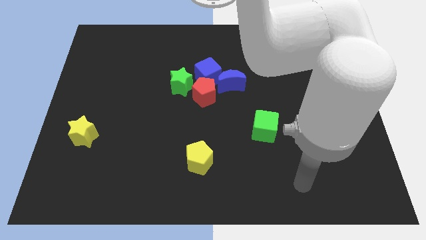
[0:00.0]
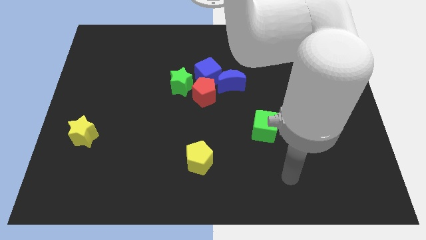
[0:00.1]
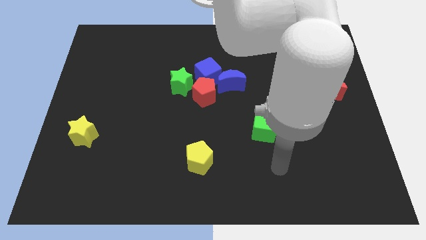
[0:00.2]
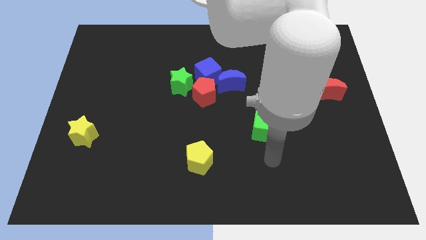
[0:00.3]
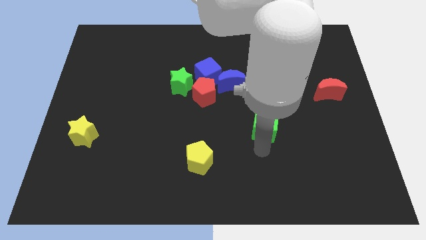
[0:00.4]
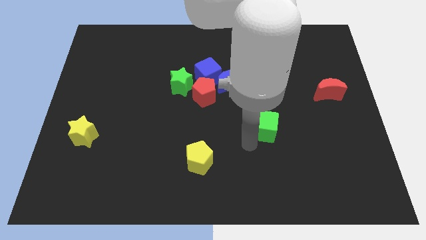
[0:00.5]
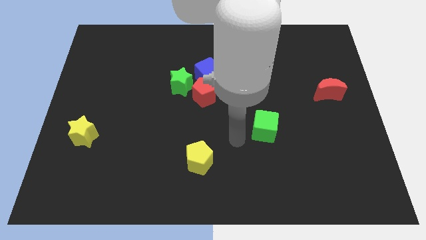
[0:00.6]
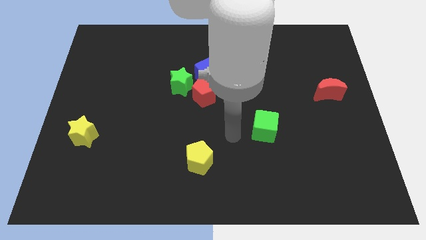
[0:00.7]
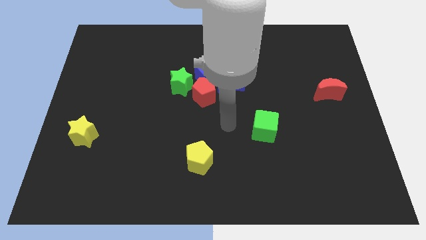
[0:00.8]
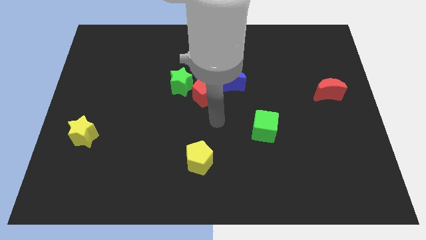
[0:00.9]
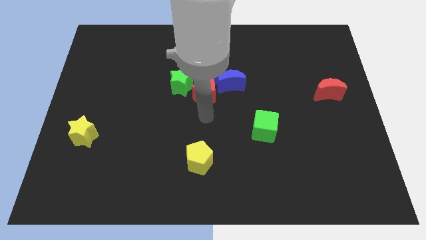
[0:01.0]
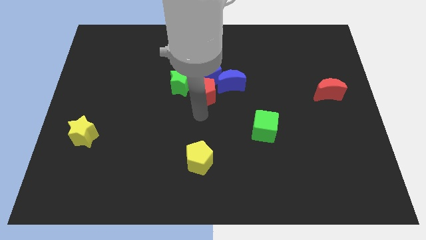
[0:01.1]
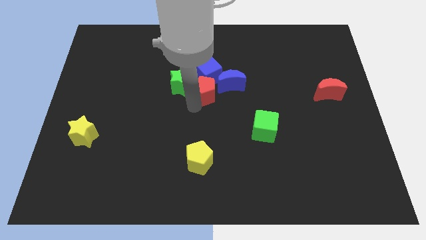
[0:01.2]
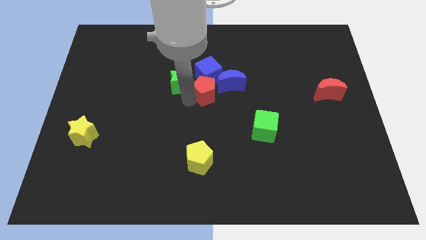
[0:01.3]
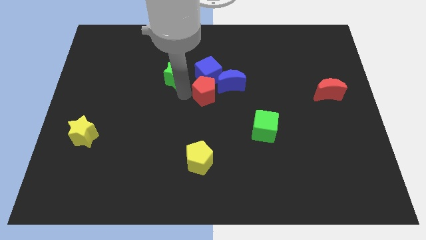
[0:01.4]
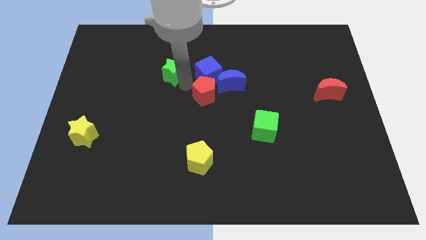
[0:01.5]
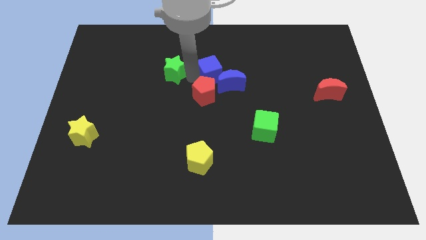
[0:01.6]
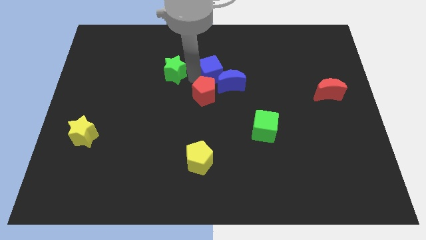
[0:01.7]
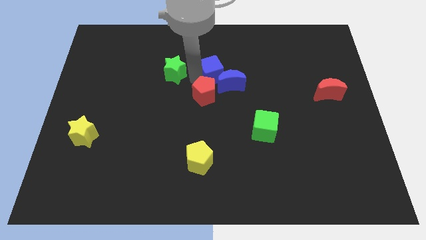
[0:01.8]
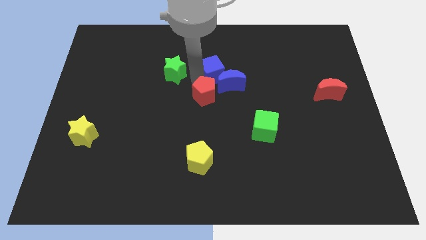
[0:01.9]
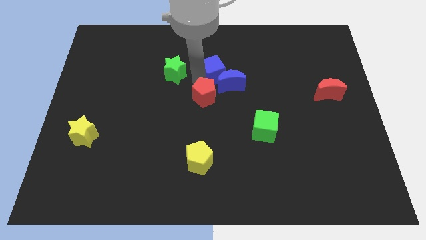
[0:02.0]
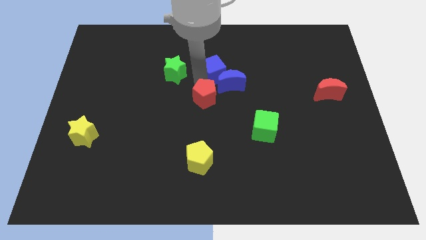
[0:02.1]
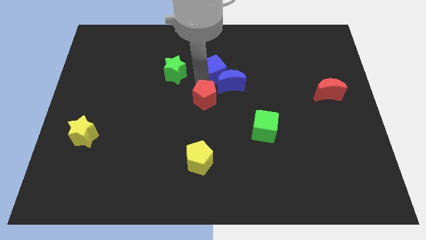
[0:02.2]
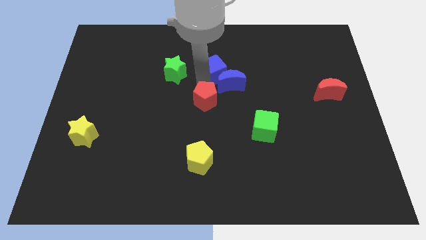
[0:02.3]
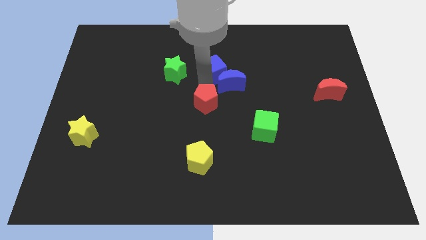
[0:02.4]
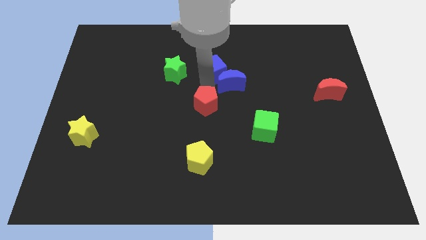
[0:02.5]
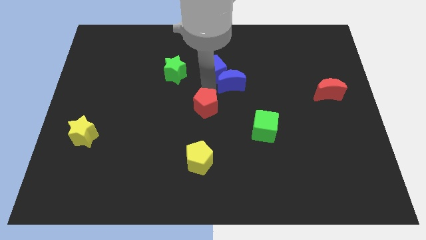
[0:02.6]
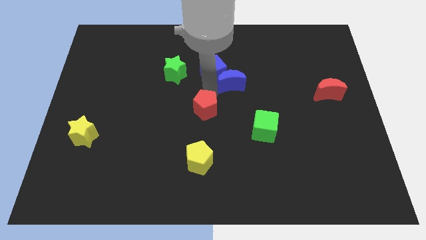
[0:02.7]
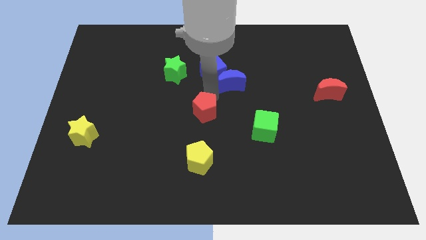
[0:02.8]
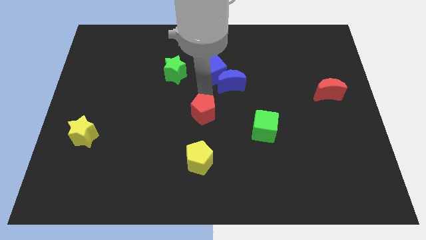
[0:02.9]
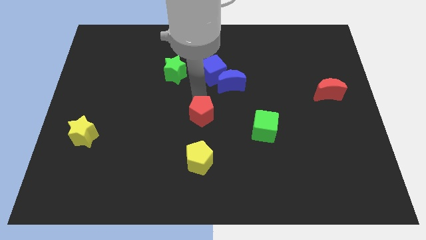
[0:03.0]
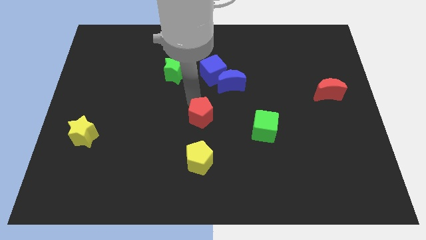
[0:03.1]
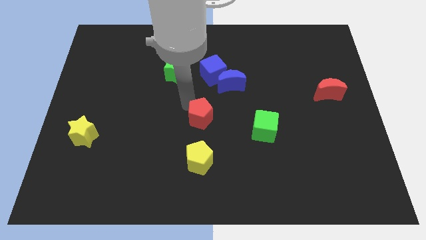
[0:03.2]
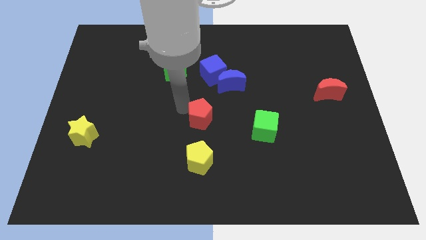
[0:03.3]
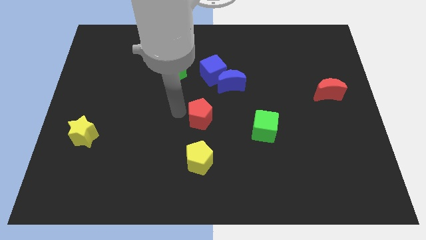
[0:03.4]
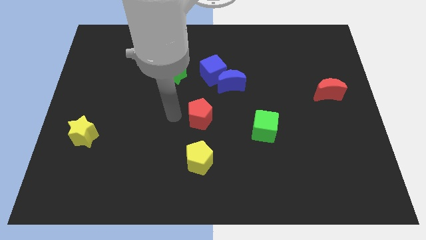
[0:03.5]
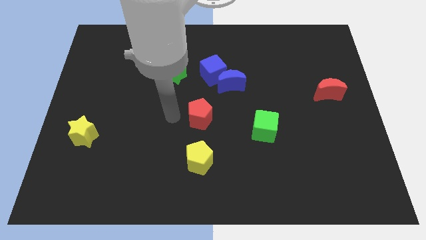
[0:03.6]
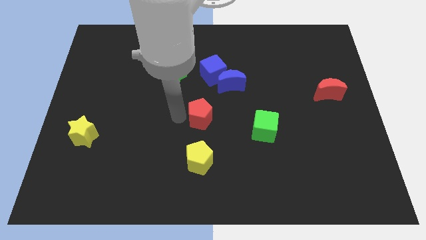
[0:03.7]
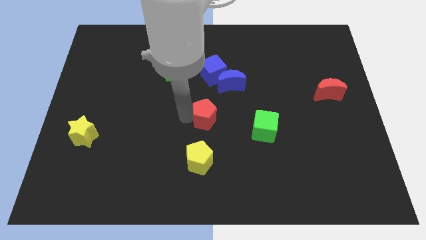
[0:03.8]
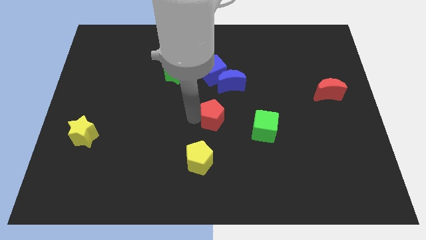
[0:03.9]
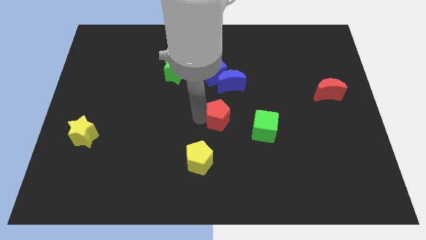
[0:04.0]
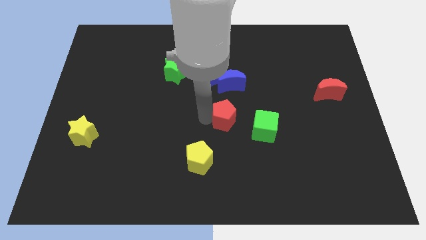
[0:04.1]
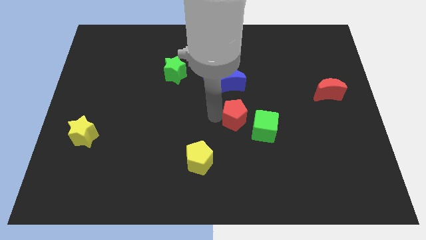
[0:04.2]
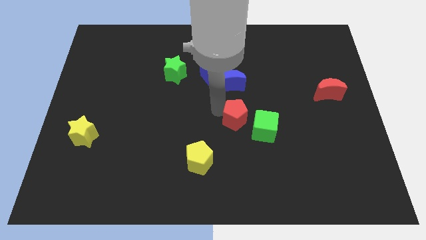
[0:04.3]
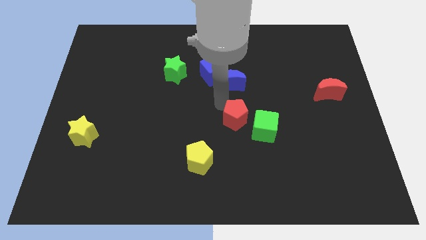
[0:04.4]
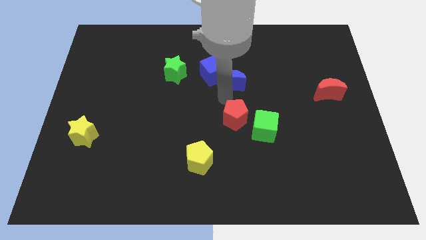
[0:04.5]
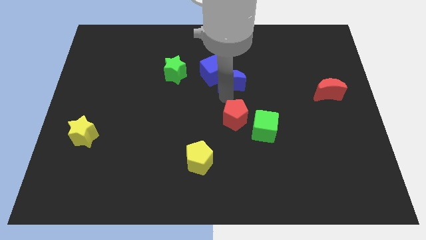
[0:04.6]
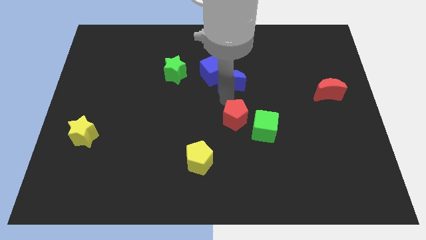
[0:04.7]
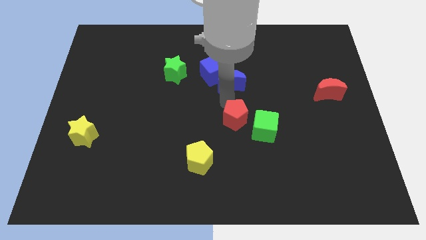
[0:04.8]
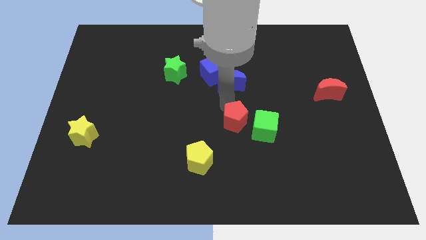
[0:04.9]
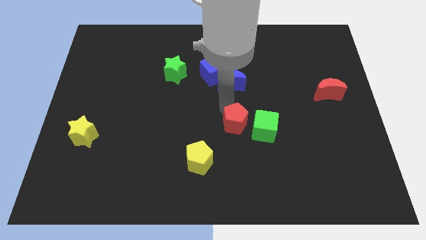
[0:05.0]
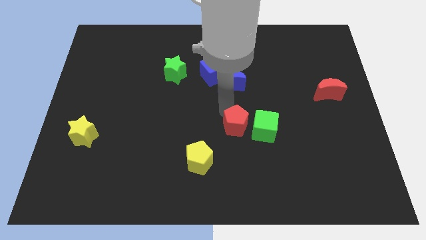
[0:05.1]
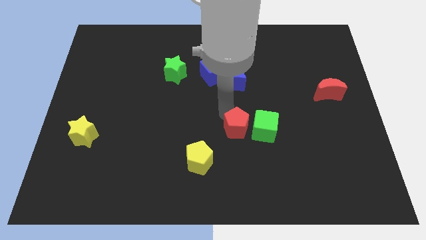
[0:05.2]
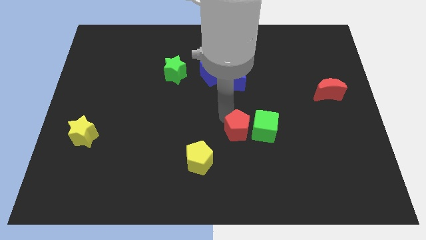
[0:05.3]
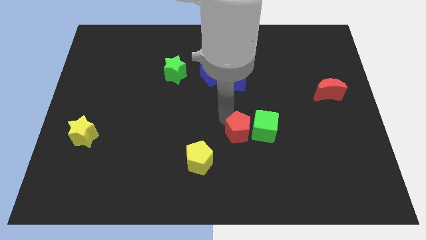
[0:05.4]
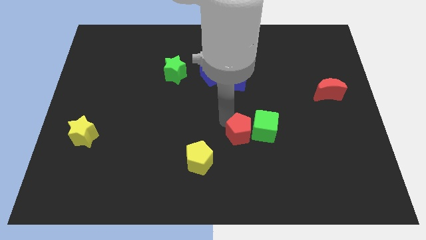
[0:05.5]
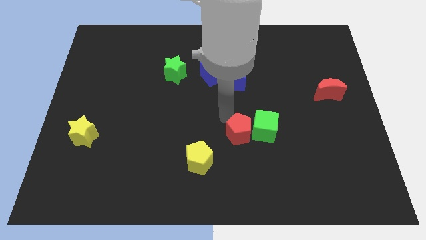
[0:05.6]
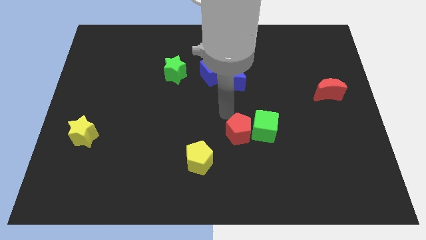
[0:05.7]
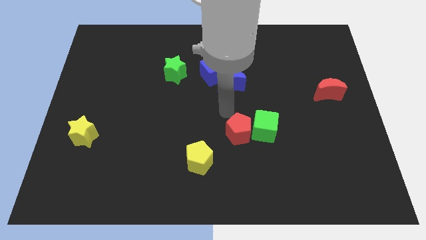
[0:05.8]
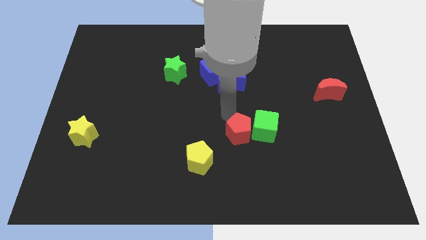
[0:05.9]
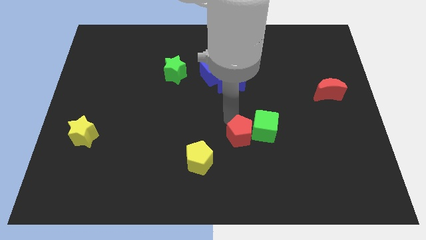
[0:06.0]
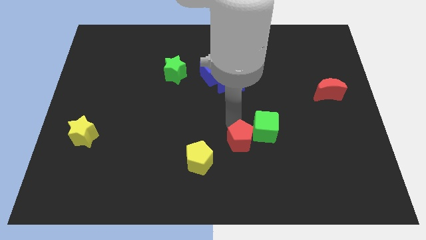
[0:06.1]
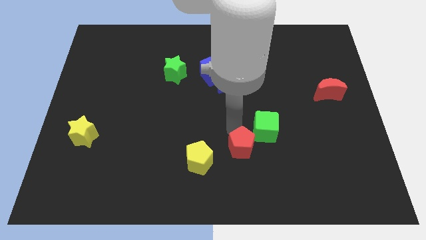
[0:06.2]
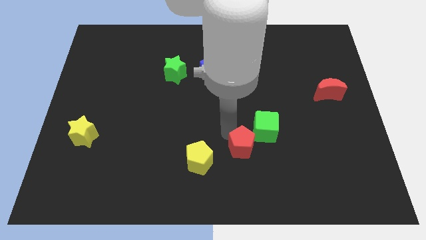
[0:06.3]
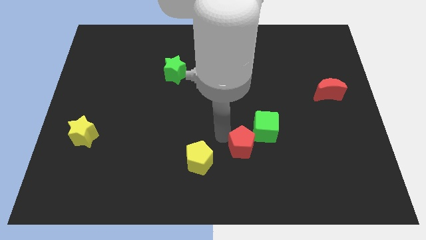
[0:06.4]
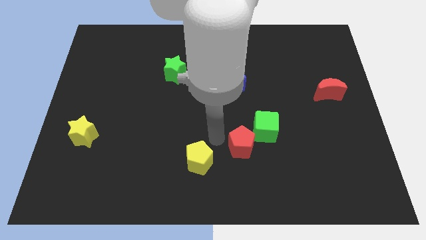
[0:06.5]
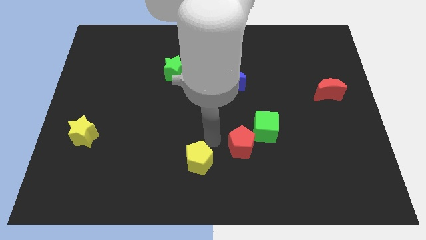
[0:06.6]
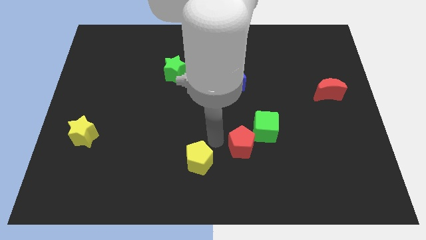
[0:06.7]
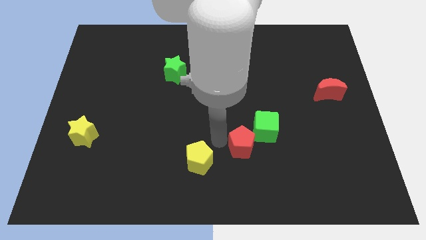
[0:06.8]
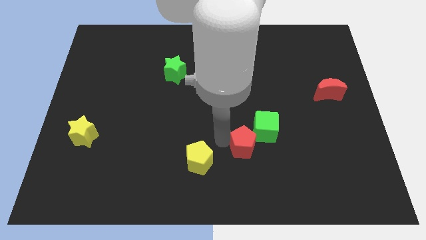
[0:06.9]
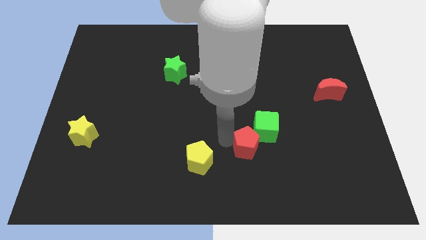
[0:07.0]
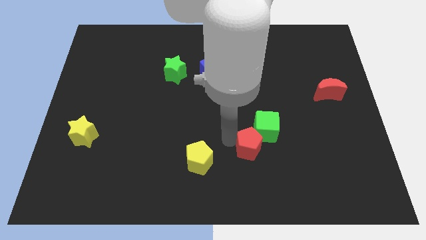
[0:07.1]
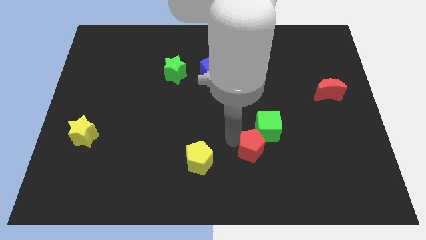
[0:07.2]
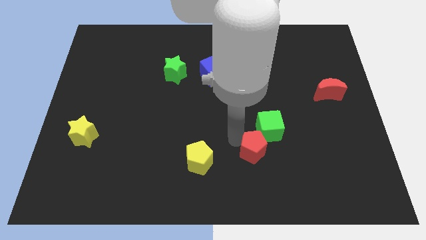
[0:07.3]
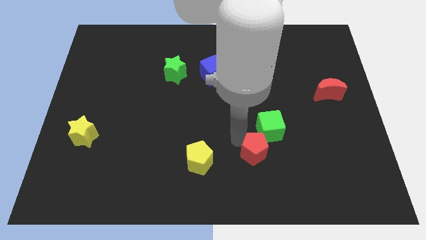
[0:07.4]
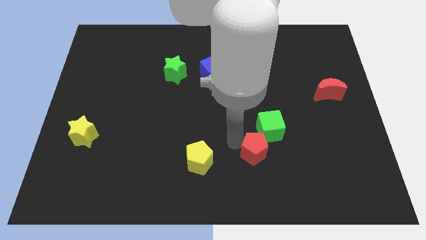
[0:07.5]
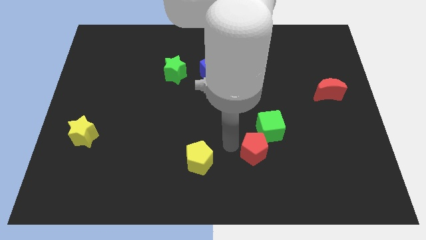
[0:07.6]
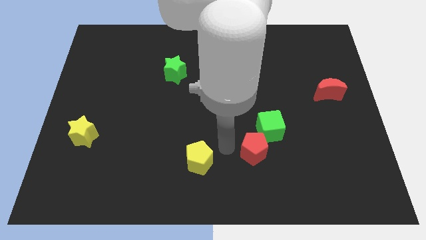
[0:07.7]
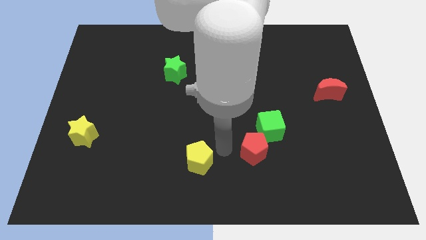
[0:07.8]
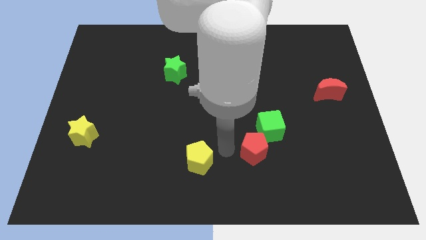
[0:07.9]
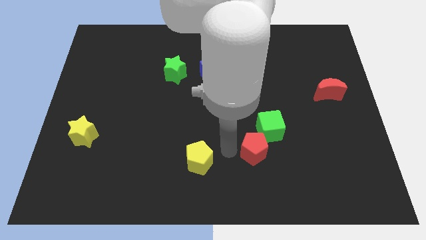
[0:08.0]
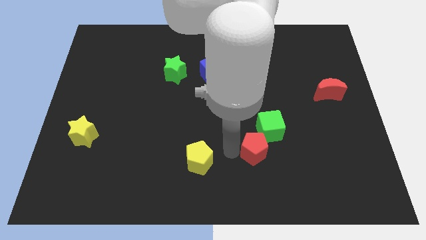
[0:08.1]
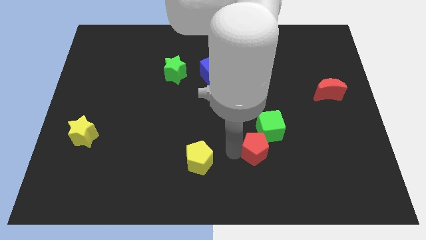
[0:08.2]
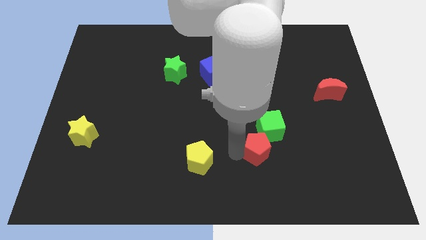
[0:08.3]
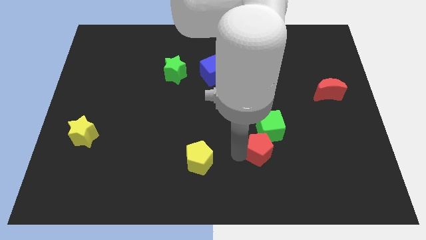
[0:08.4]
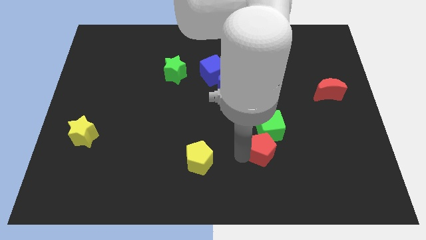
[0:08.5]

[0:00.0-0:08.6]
slide the red pentagon downwards and right
